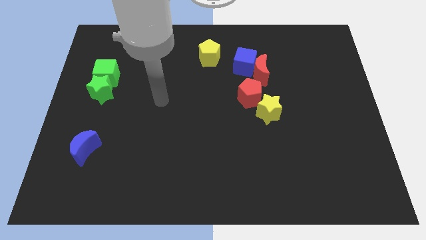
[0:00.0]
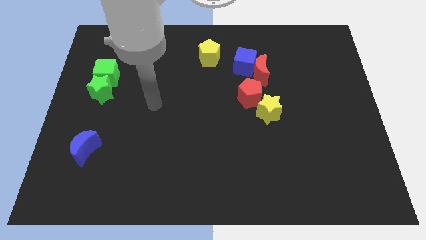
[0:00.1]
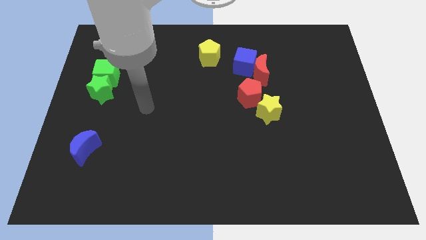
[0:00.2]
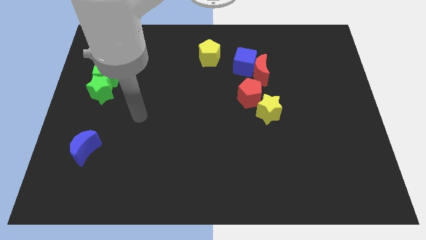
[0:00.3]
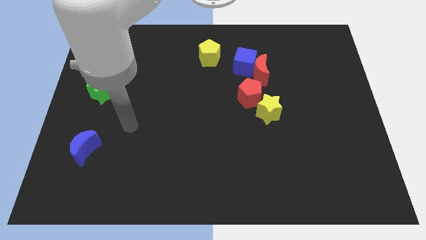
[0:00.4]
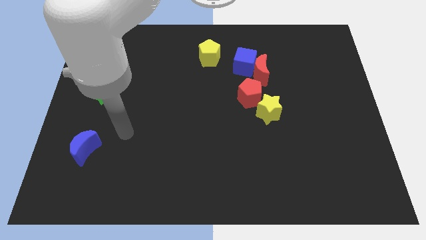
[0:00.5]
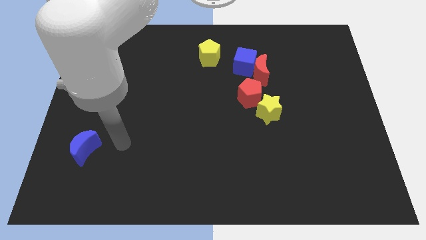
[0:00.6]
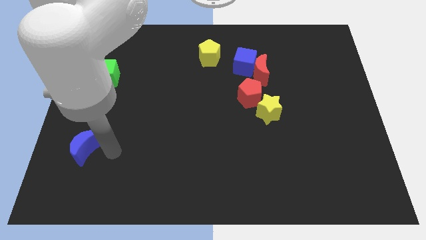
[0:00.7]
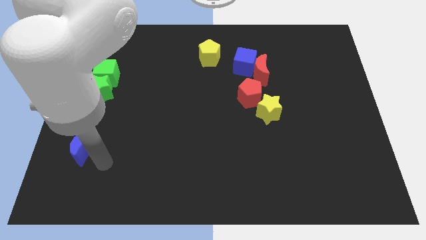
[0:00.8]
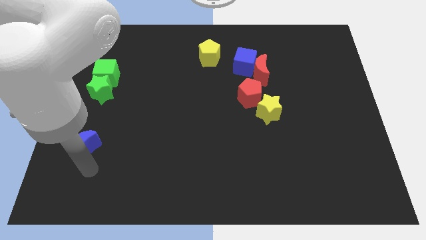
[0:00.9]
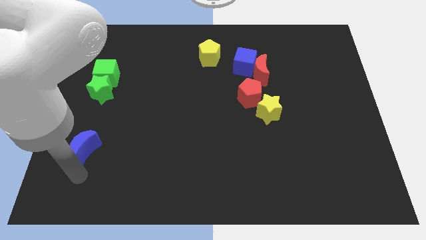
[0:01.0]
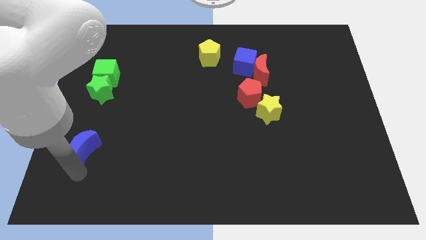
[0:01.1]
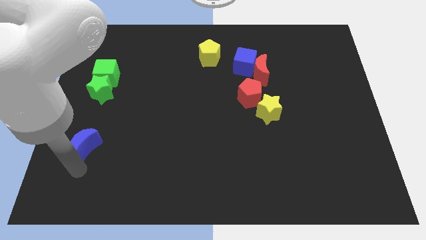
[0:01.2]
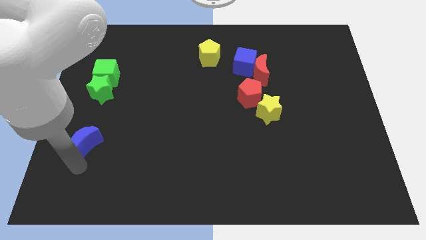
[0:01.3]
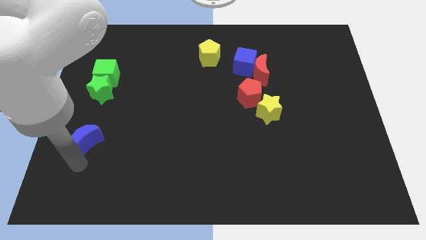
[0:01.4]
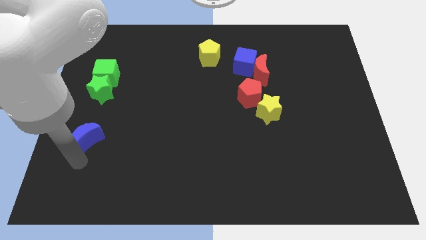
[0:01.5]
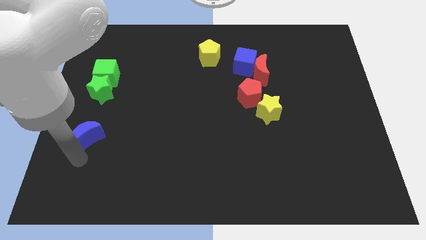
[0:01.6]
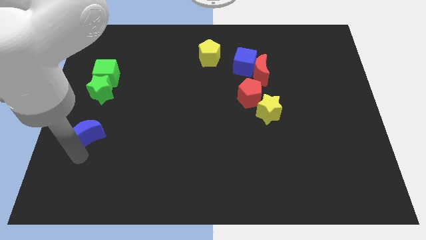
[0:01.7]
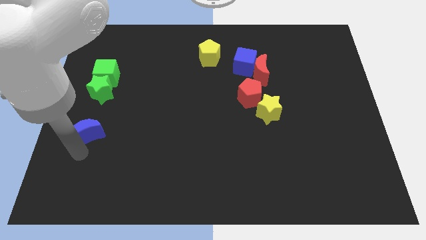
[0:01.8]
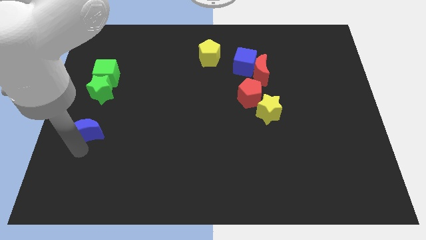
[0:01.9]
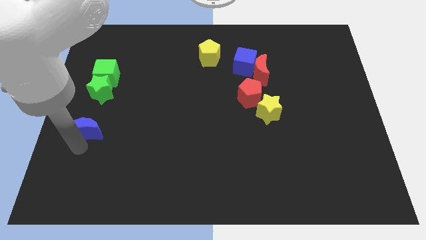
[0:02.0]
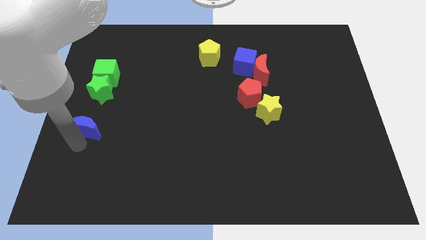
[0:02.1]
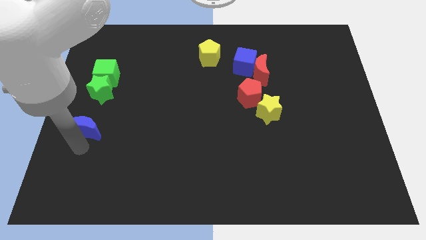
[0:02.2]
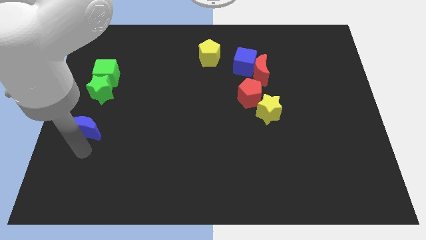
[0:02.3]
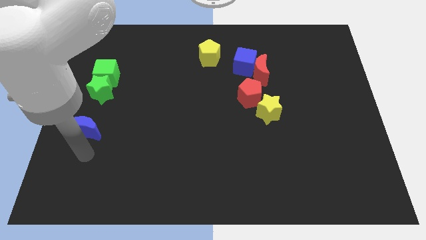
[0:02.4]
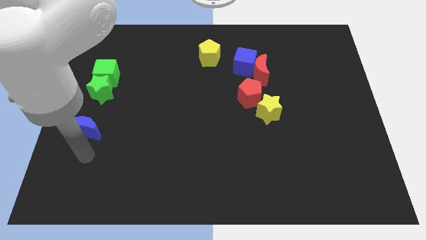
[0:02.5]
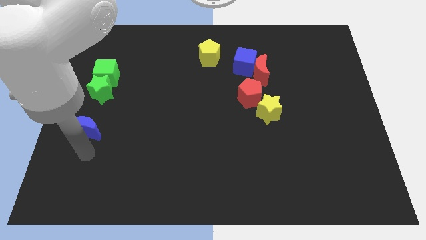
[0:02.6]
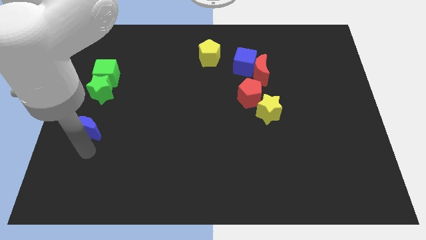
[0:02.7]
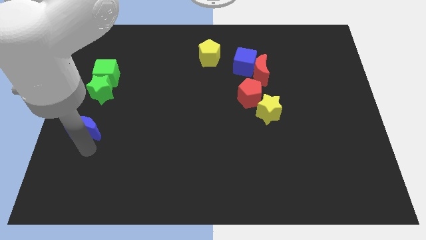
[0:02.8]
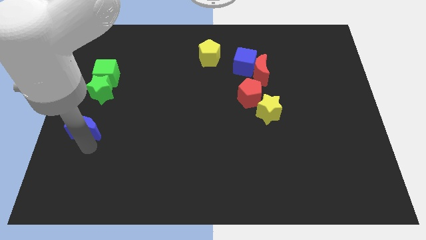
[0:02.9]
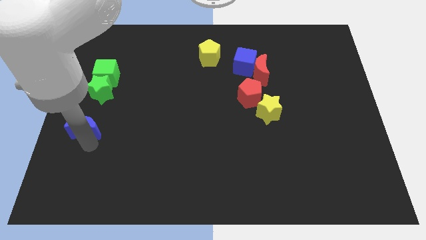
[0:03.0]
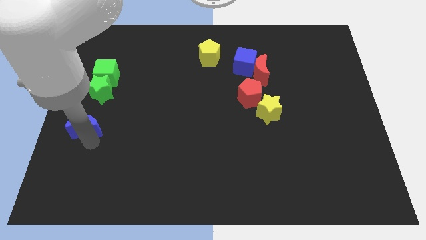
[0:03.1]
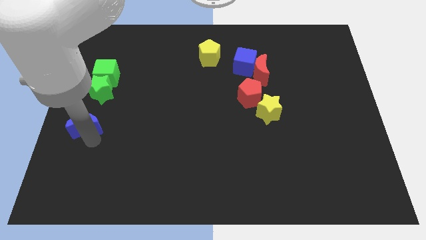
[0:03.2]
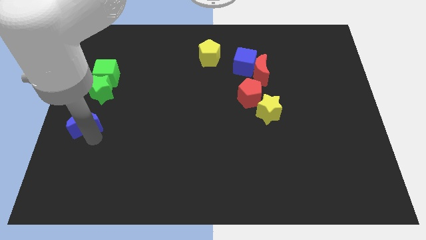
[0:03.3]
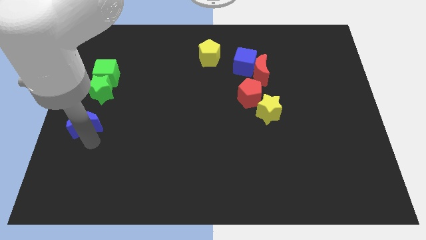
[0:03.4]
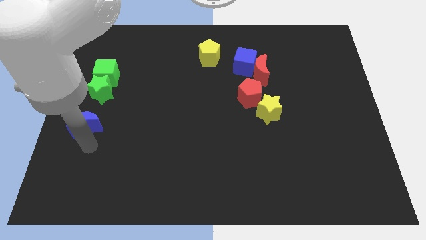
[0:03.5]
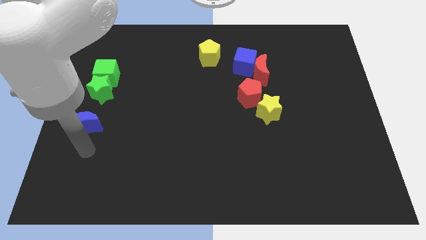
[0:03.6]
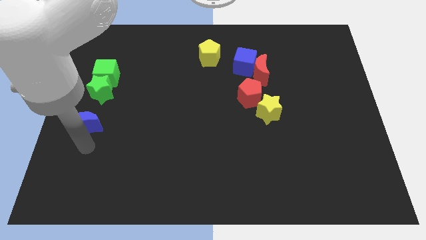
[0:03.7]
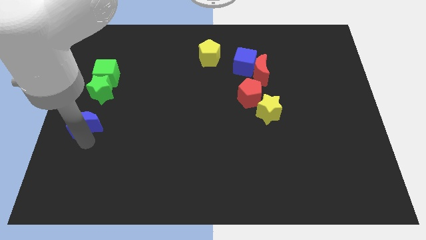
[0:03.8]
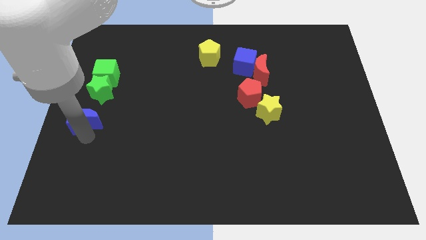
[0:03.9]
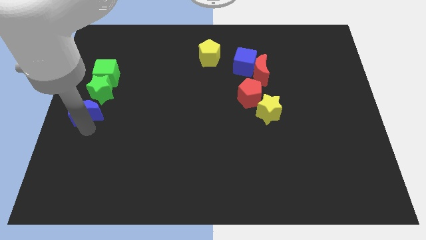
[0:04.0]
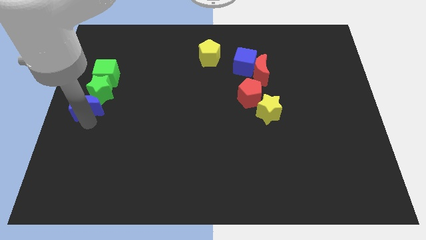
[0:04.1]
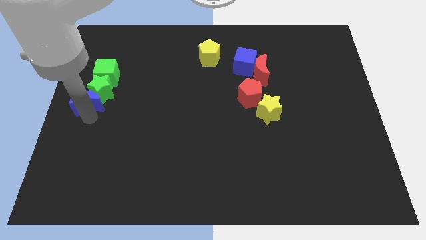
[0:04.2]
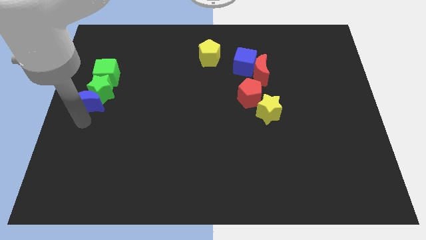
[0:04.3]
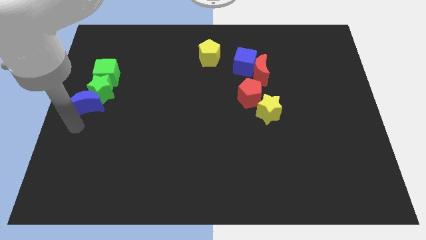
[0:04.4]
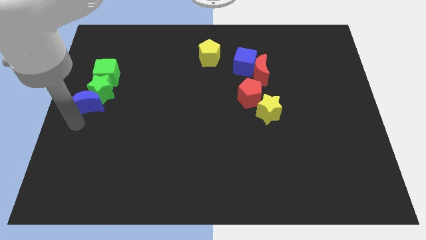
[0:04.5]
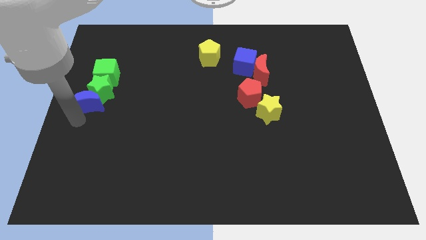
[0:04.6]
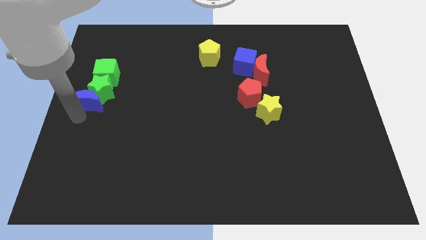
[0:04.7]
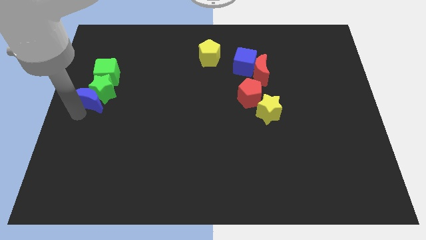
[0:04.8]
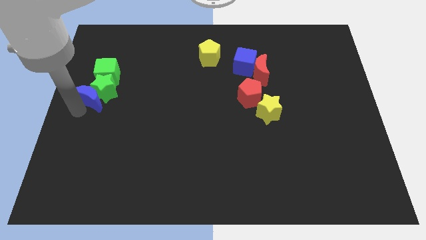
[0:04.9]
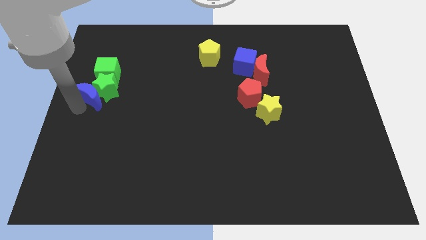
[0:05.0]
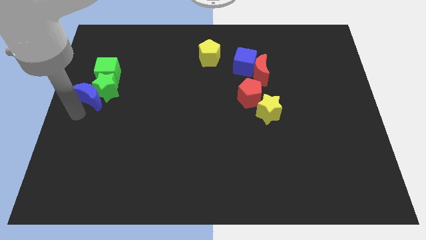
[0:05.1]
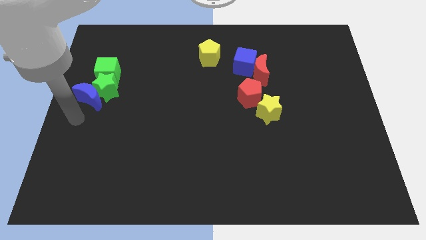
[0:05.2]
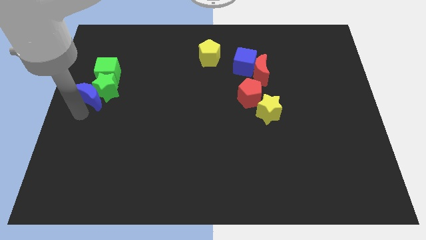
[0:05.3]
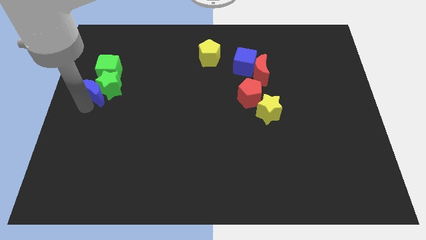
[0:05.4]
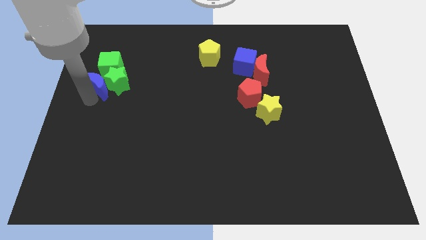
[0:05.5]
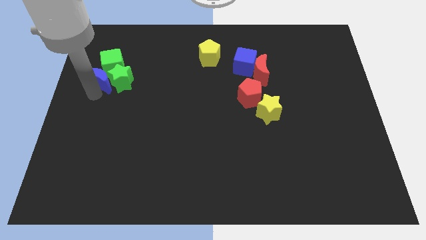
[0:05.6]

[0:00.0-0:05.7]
push the blue moon towards the green cube
